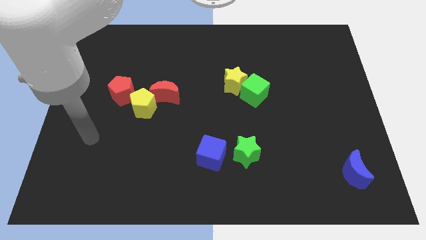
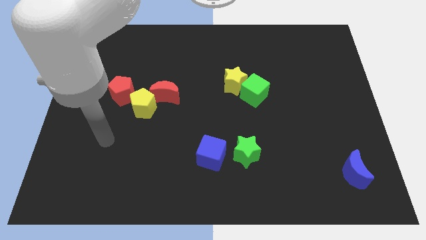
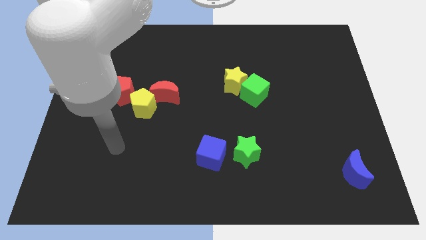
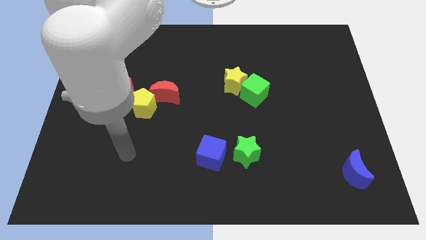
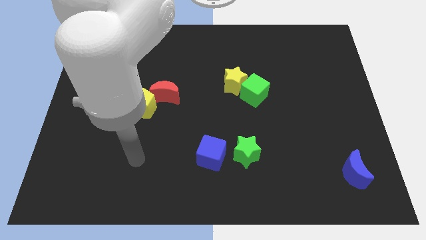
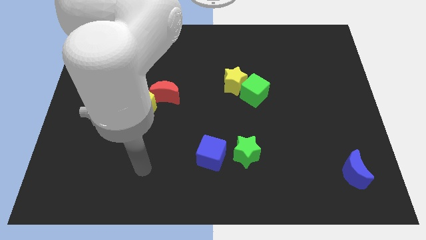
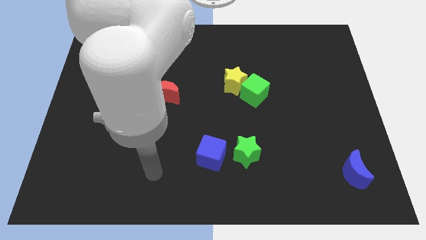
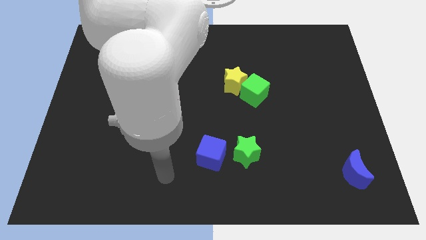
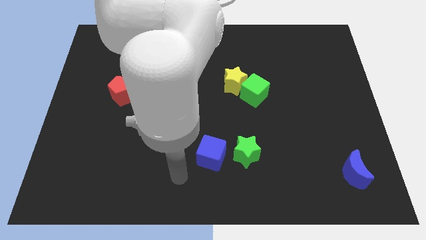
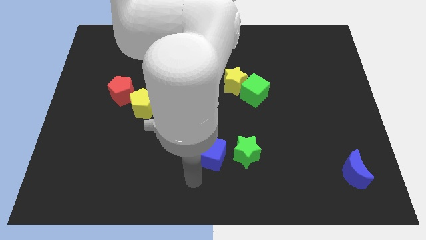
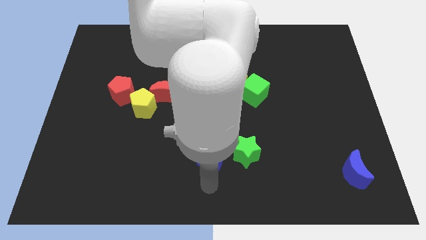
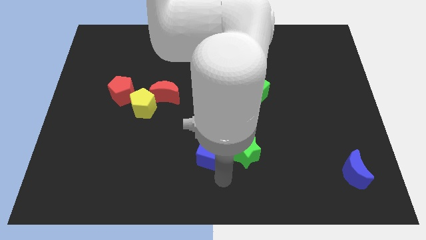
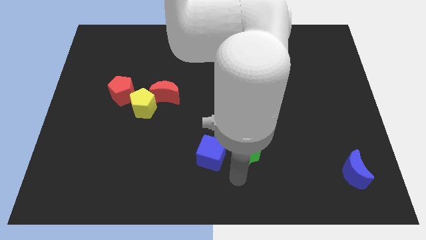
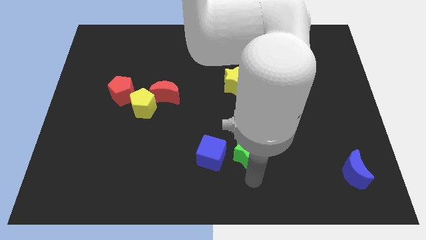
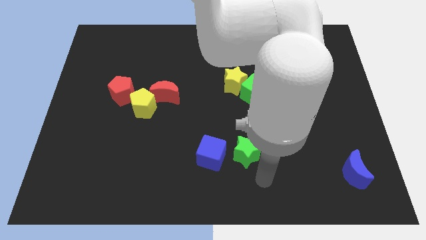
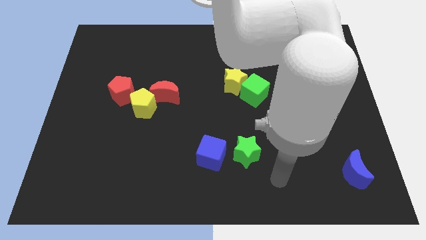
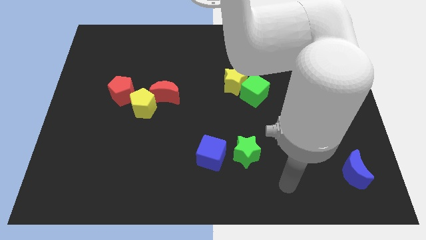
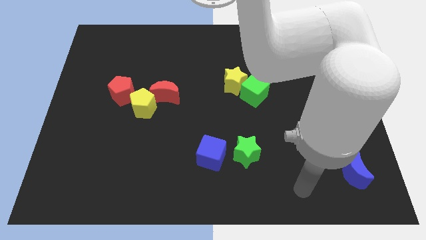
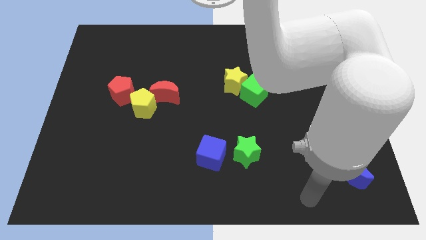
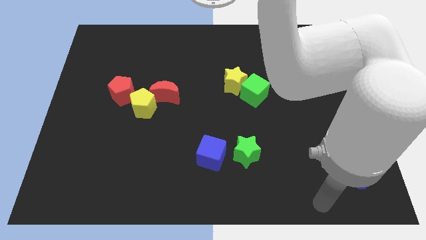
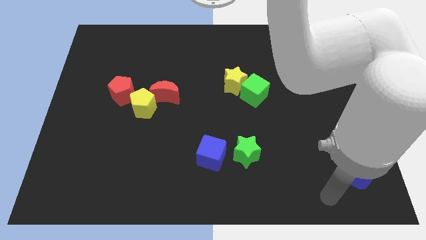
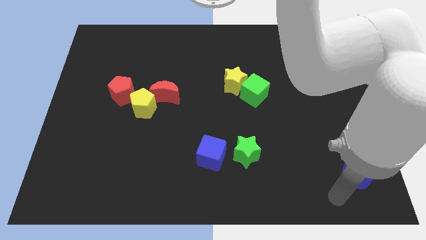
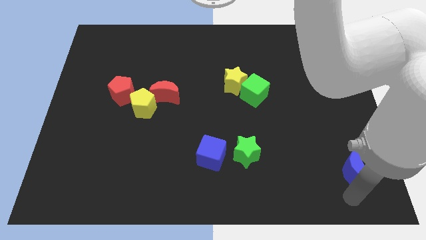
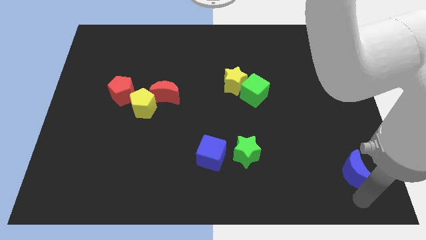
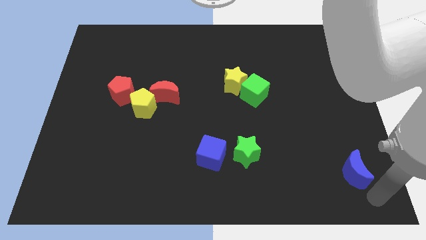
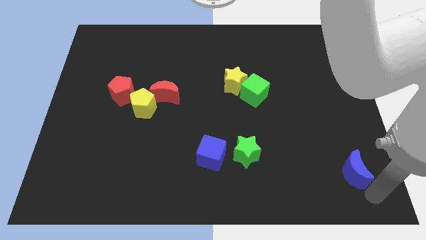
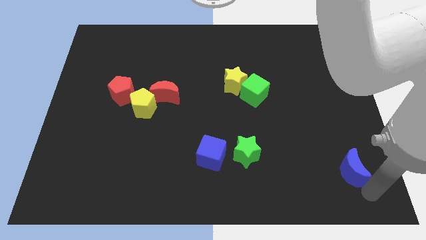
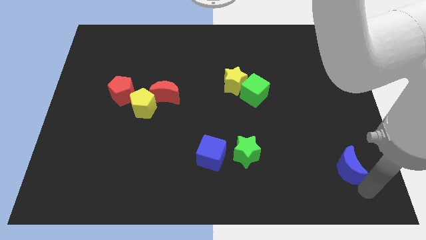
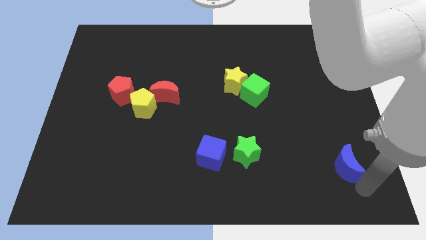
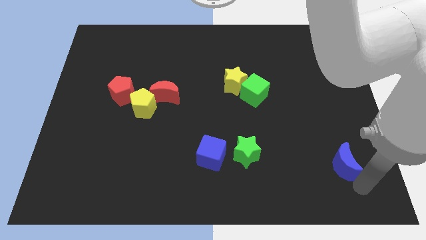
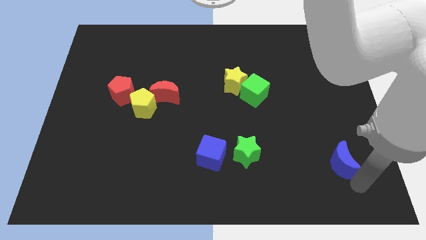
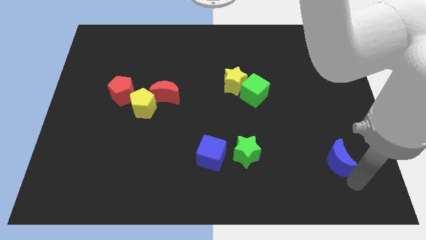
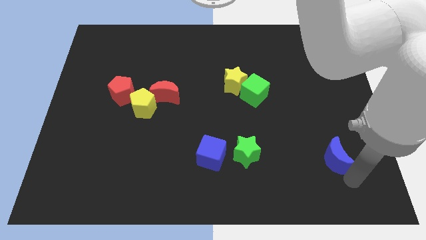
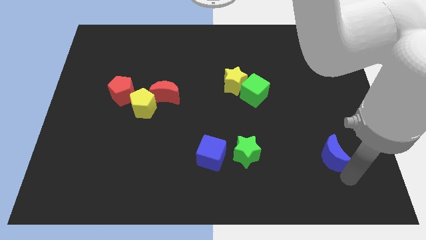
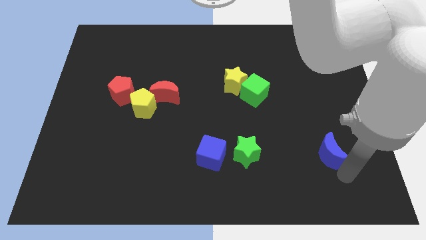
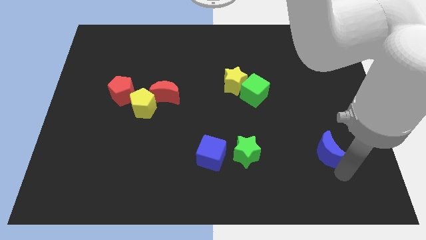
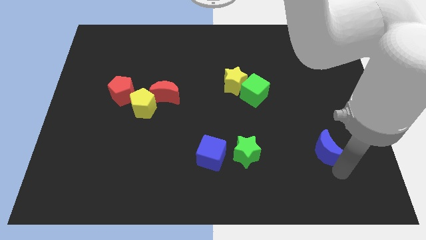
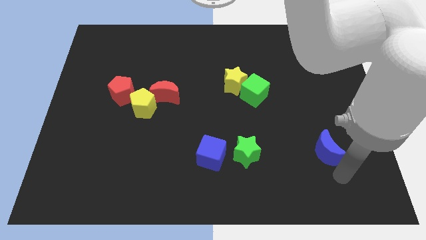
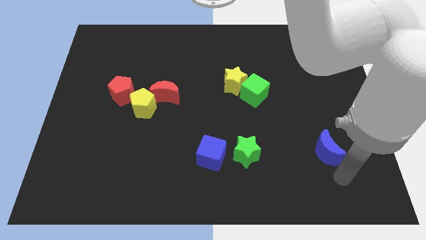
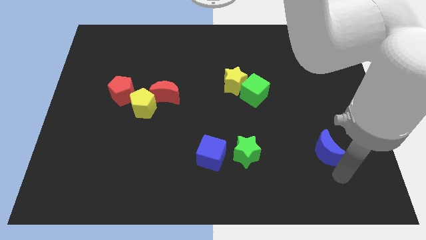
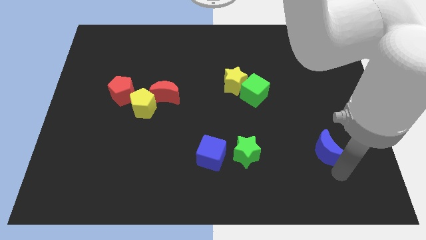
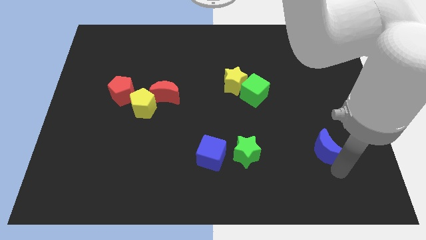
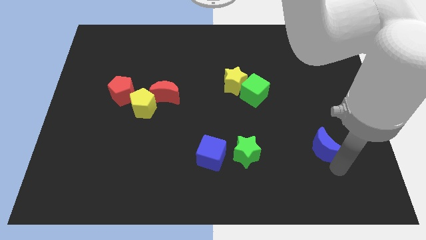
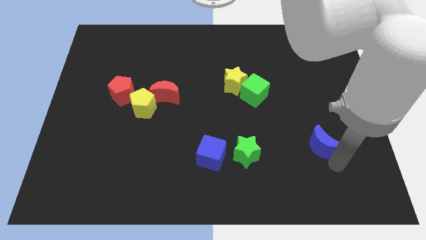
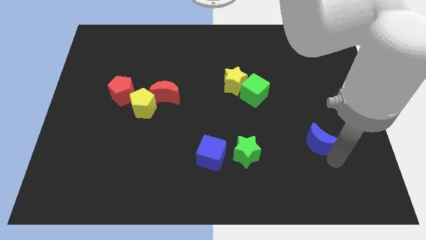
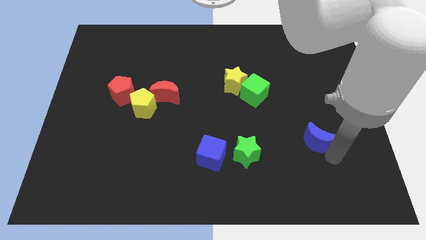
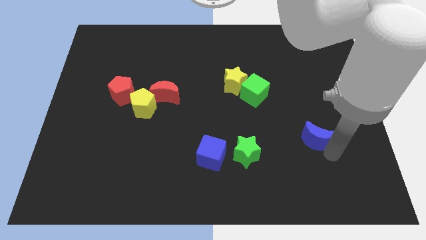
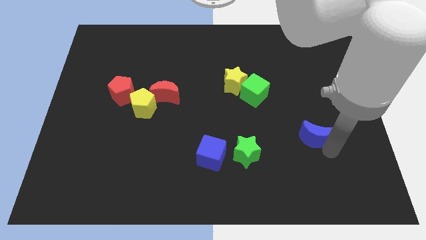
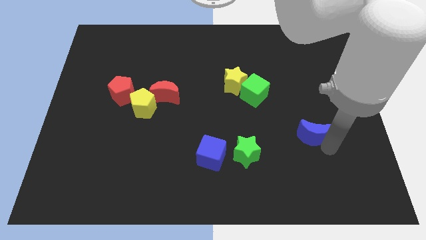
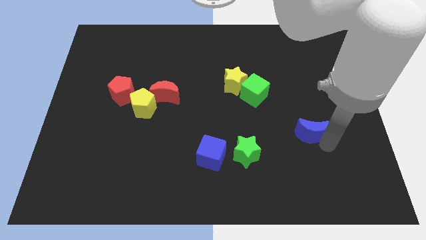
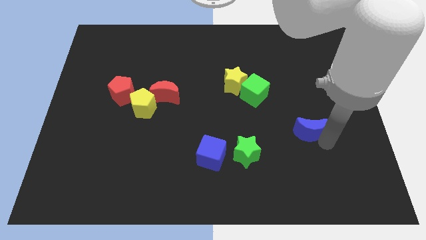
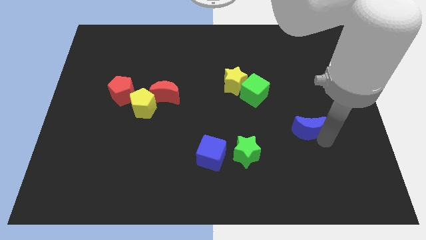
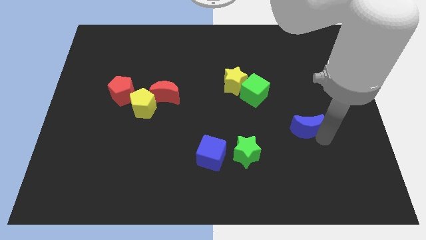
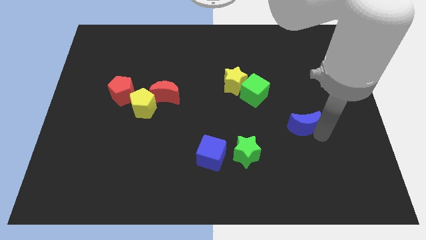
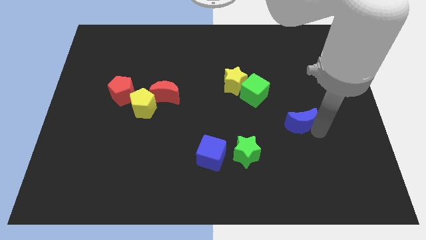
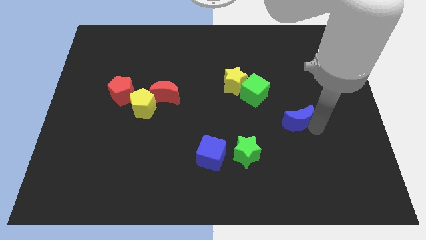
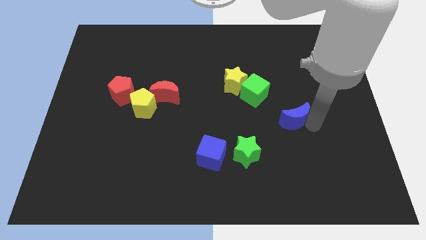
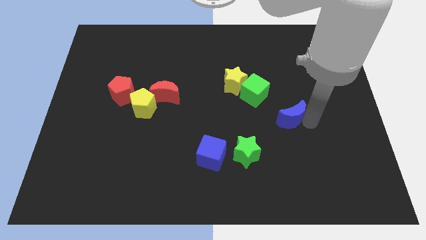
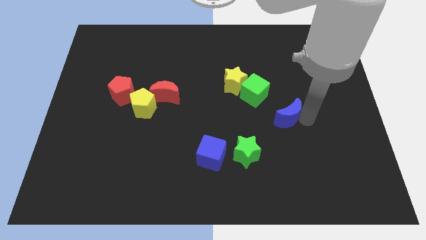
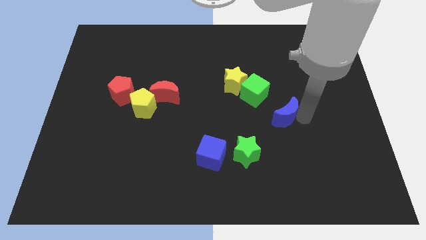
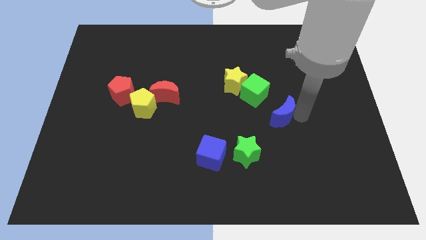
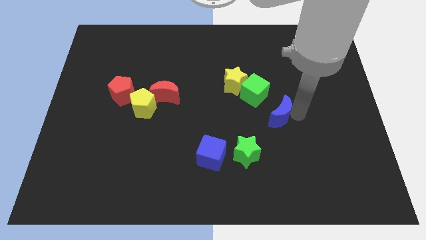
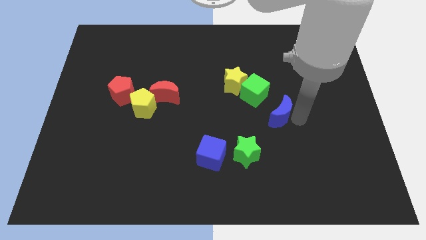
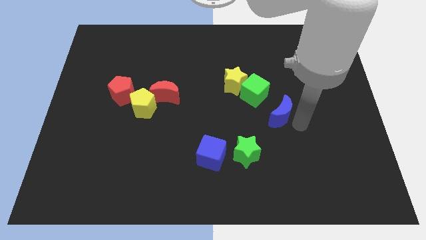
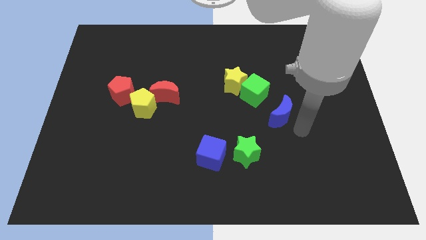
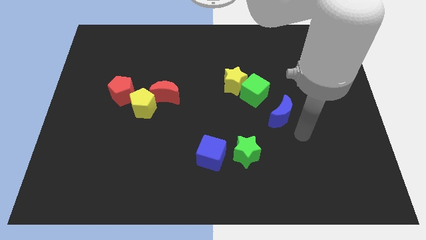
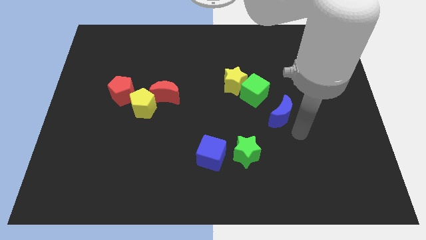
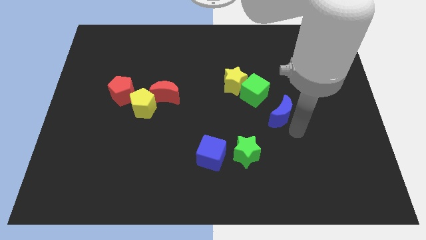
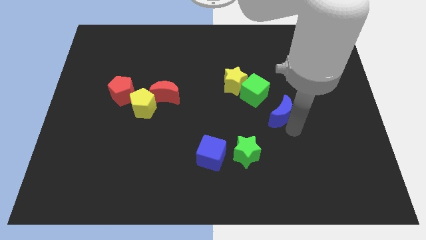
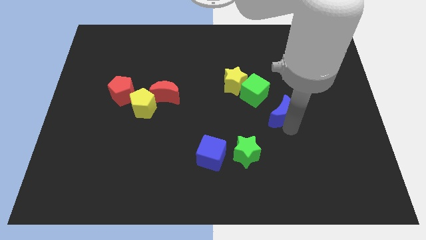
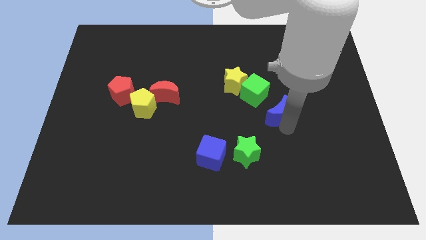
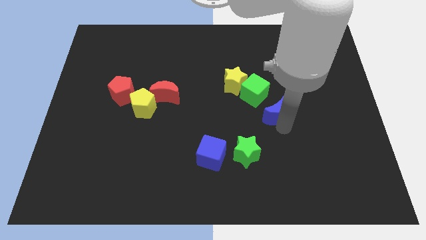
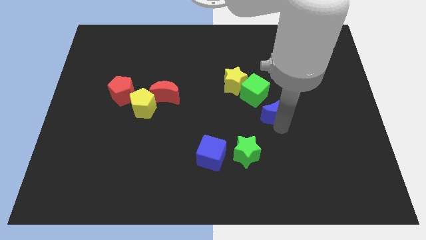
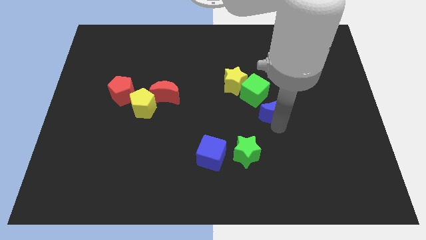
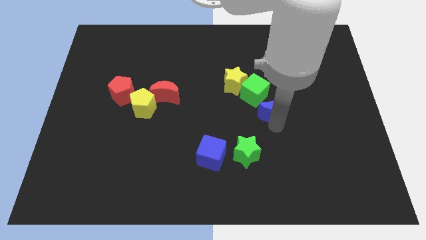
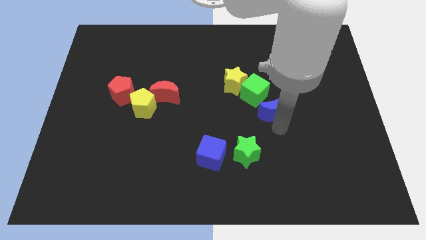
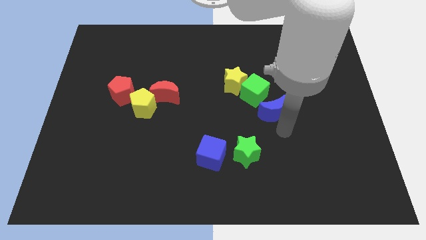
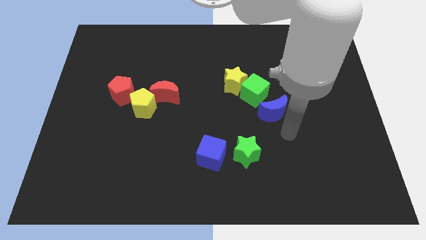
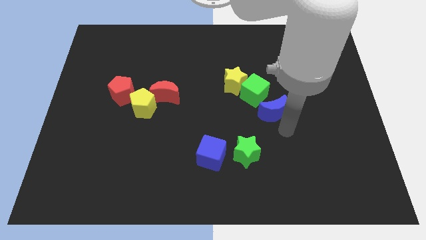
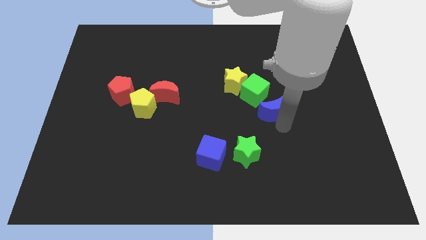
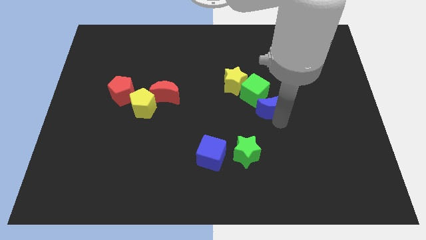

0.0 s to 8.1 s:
slide the blue moon to the green cube

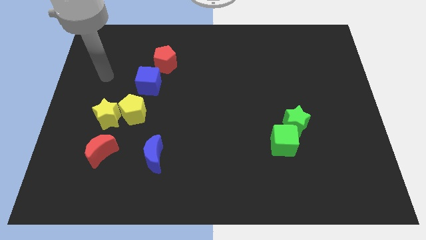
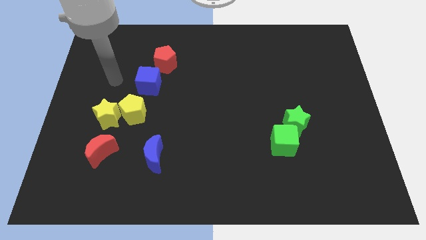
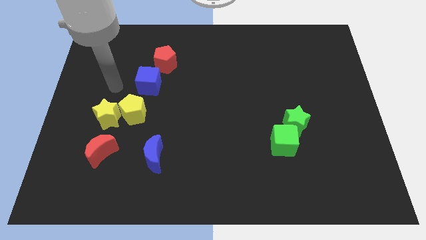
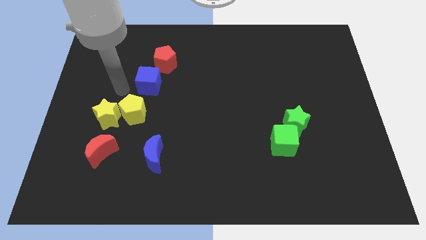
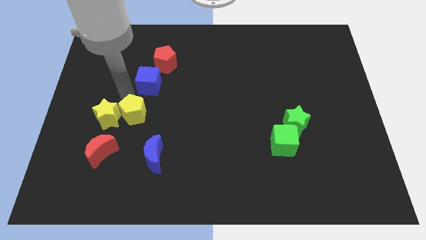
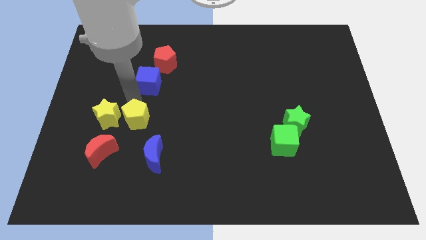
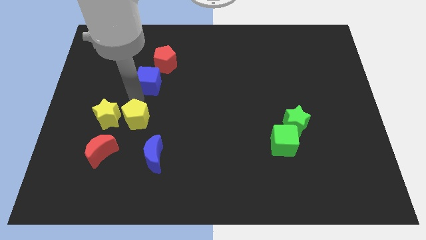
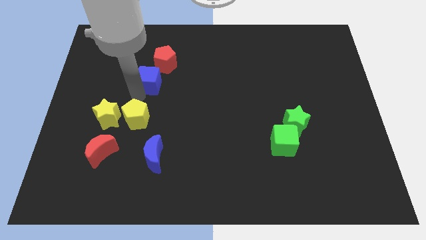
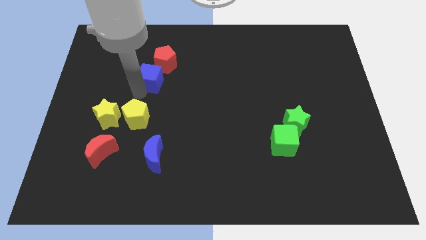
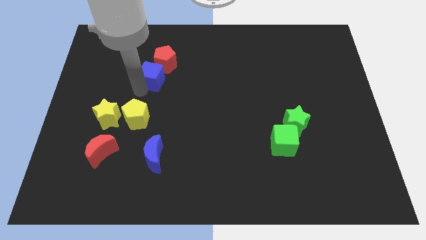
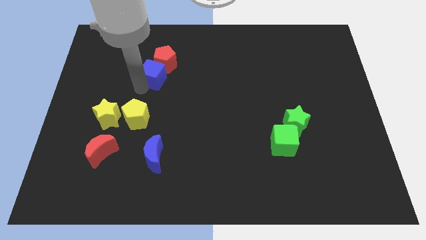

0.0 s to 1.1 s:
push the blue cube towards the red pentagon
